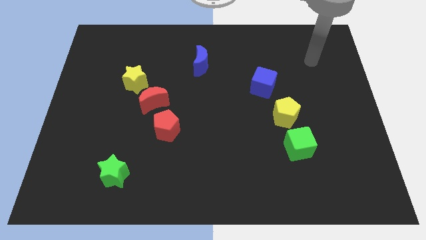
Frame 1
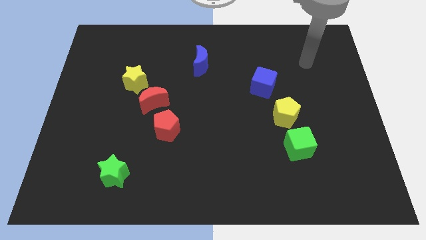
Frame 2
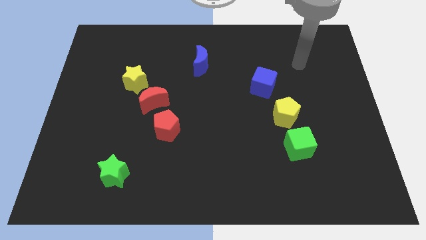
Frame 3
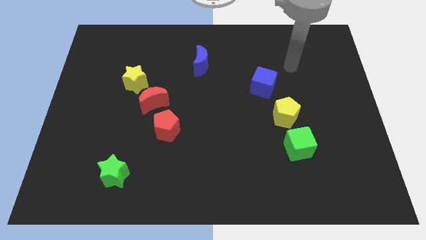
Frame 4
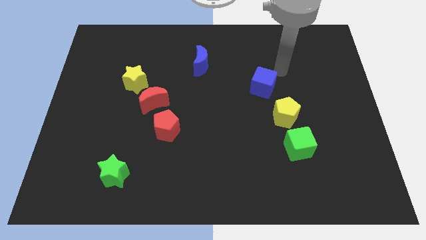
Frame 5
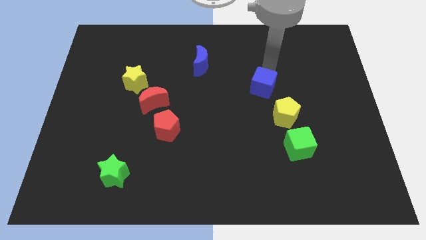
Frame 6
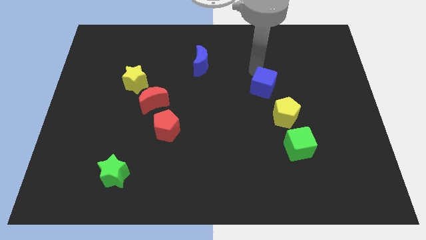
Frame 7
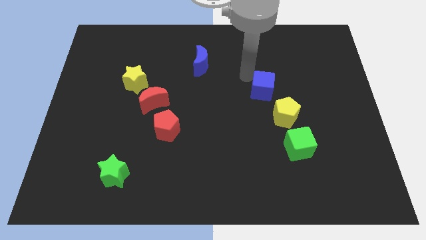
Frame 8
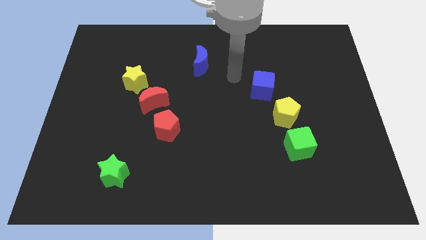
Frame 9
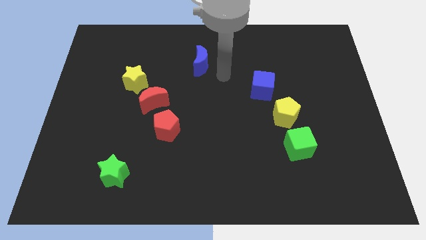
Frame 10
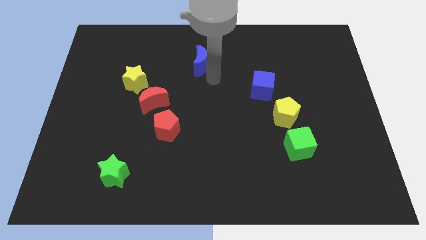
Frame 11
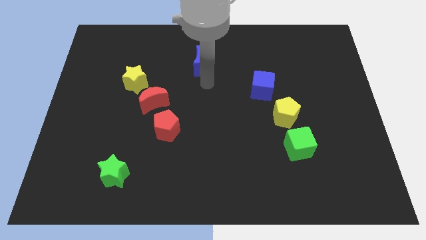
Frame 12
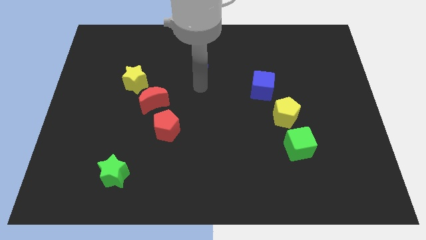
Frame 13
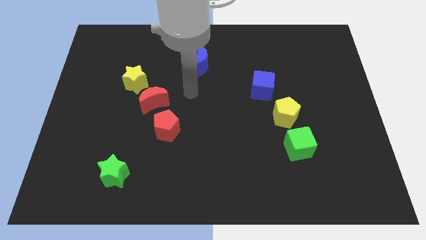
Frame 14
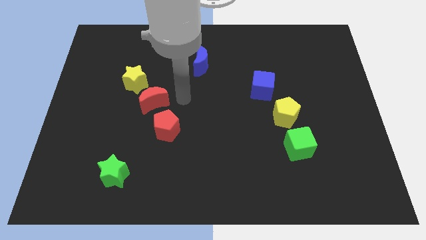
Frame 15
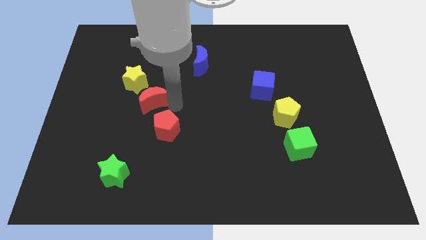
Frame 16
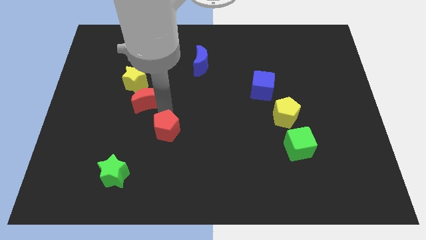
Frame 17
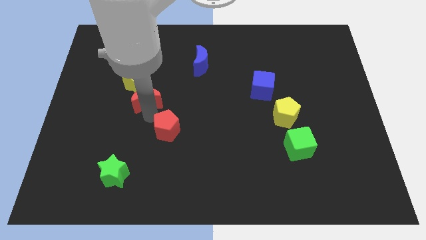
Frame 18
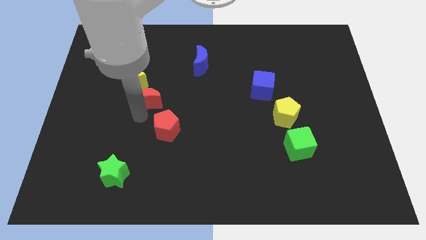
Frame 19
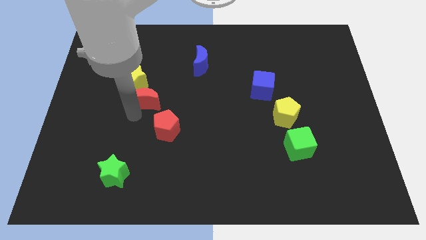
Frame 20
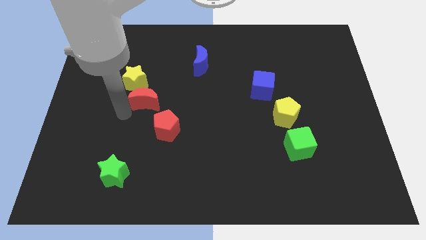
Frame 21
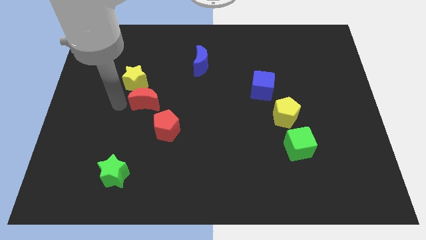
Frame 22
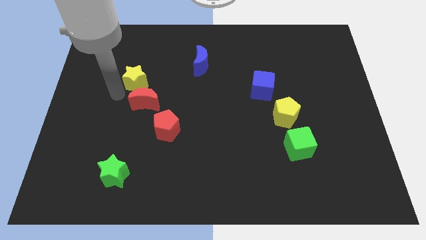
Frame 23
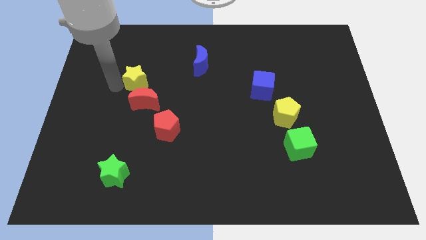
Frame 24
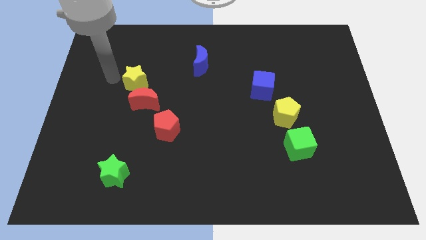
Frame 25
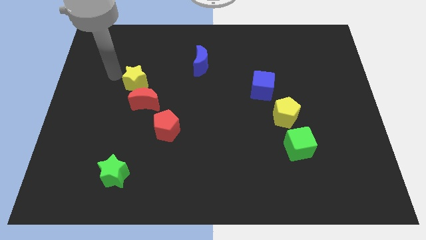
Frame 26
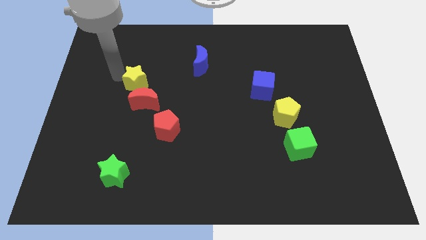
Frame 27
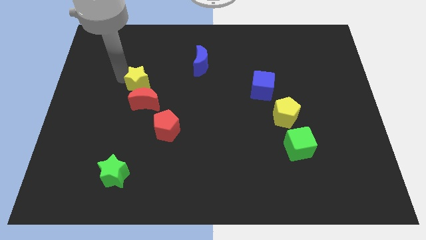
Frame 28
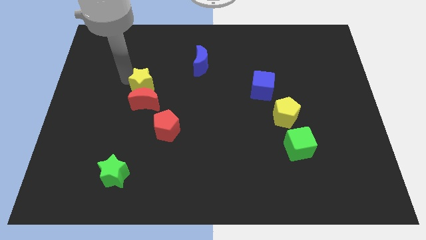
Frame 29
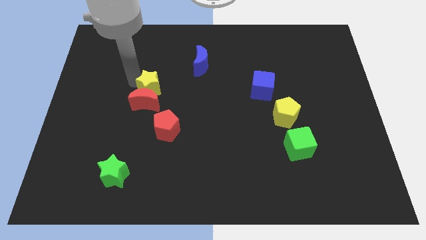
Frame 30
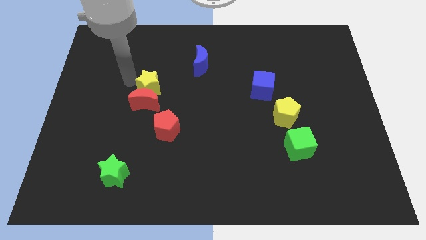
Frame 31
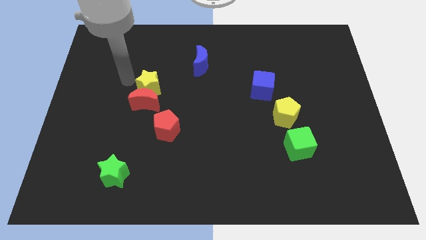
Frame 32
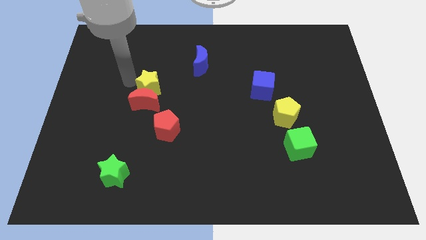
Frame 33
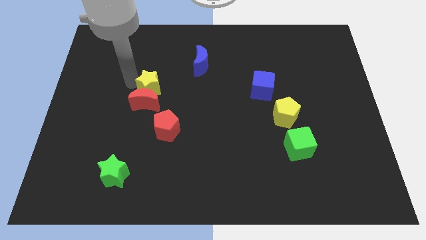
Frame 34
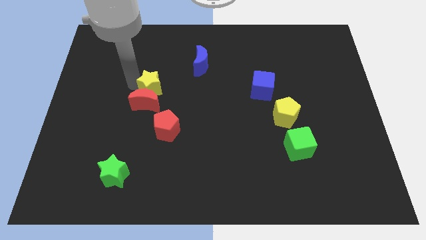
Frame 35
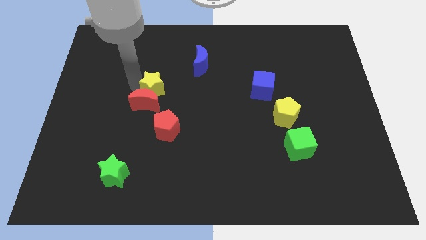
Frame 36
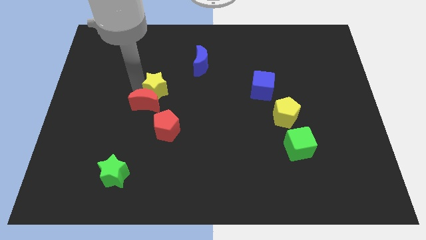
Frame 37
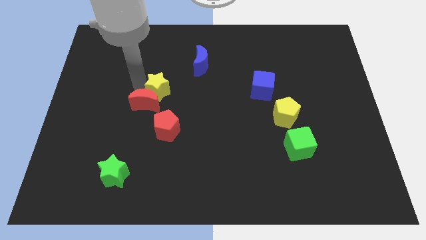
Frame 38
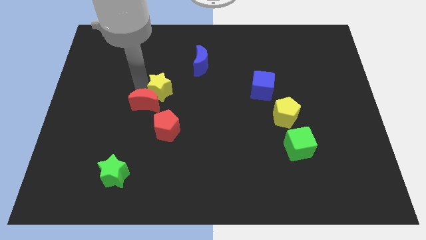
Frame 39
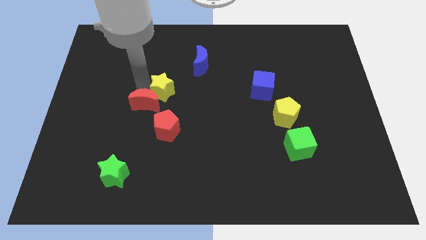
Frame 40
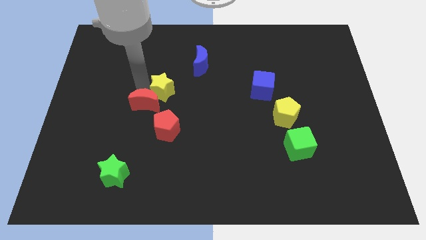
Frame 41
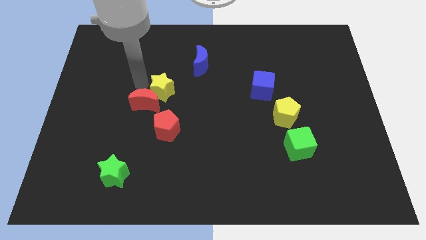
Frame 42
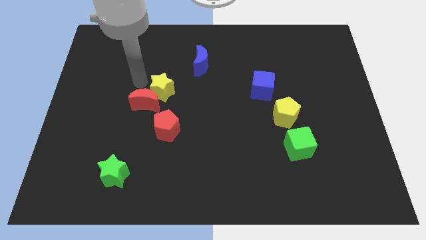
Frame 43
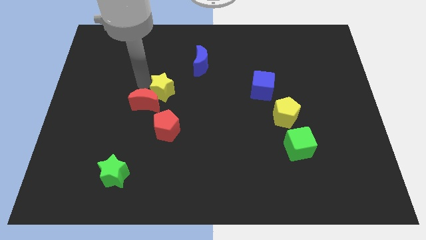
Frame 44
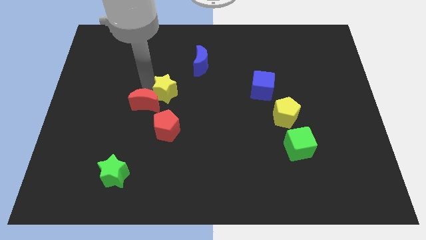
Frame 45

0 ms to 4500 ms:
push the yellow star down and then right somewhat

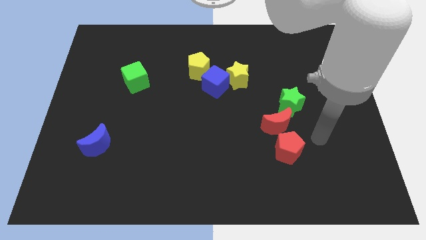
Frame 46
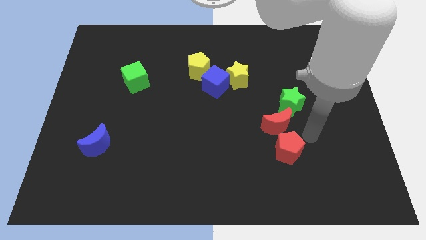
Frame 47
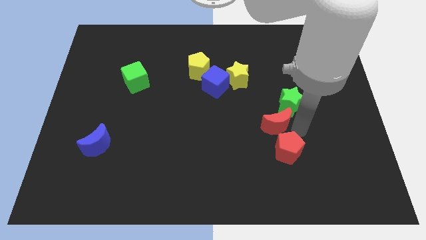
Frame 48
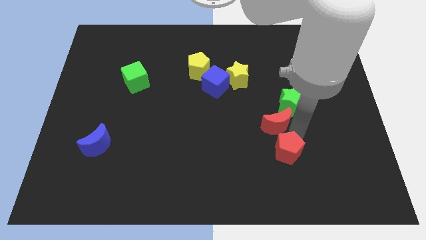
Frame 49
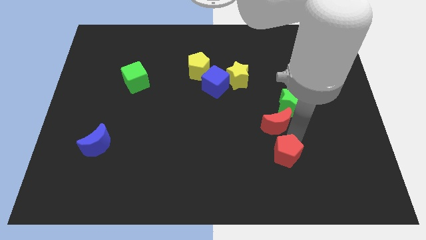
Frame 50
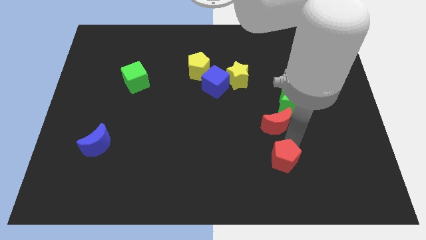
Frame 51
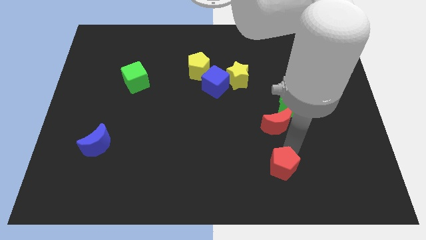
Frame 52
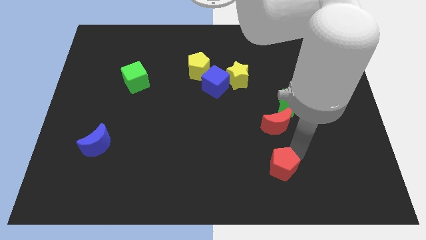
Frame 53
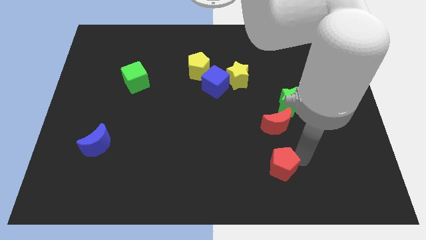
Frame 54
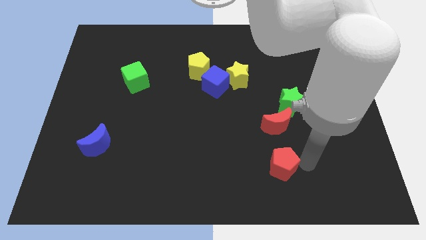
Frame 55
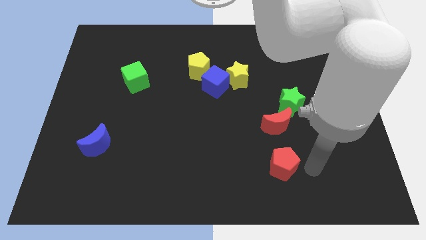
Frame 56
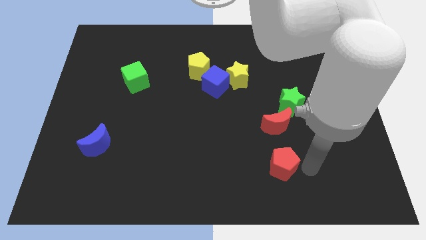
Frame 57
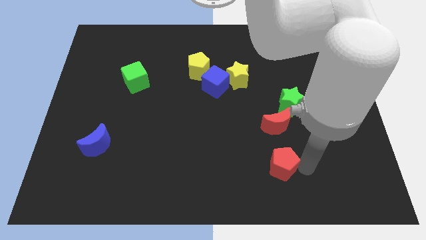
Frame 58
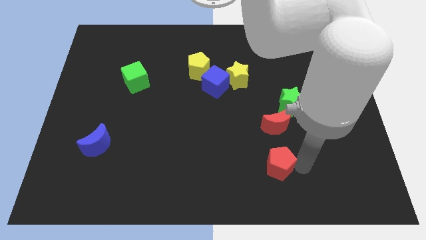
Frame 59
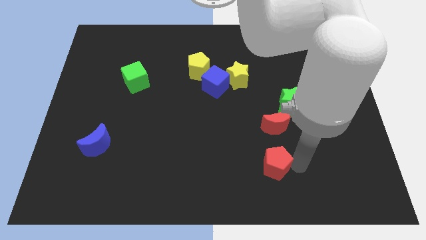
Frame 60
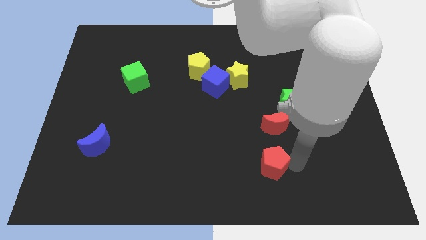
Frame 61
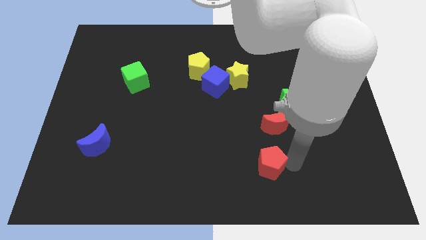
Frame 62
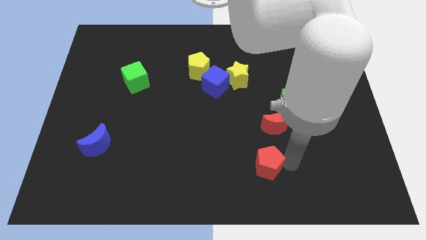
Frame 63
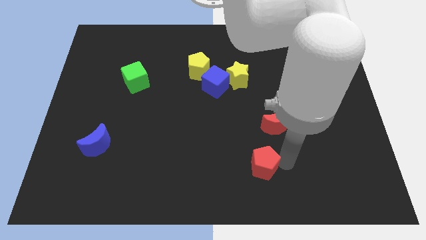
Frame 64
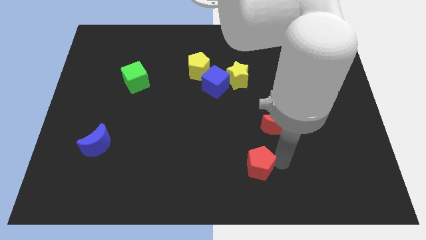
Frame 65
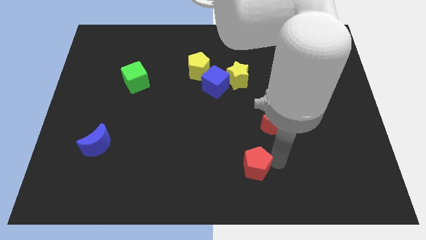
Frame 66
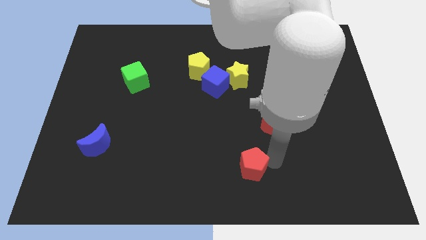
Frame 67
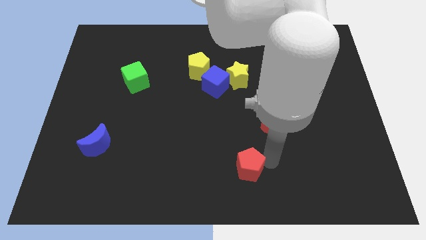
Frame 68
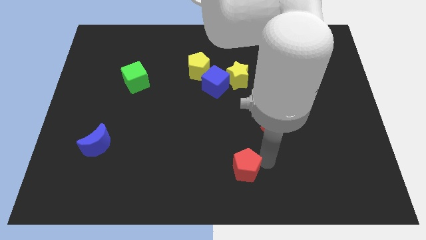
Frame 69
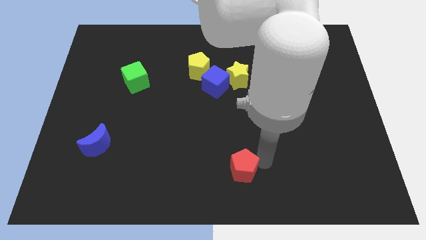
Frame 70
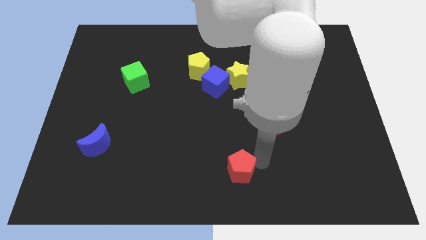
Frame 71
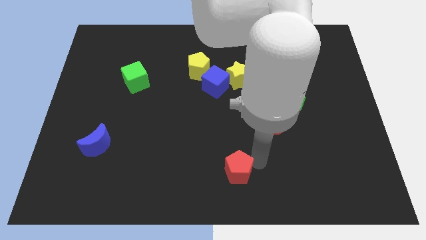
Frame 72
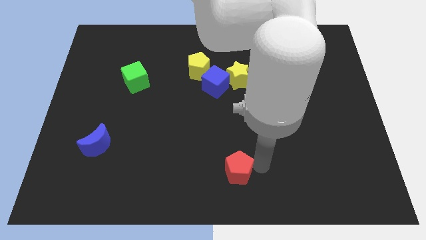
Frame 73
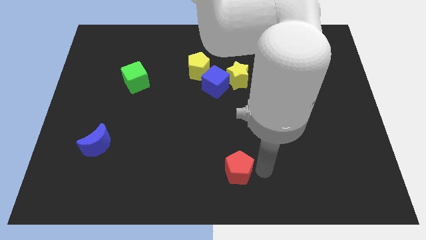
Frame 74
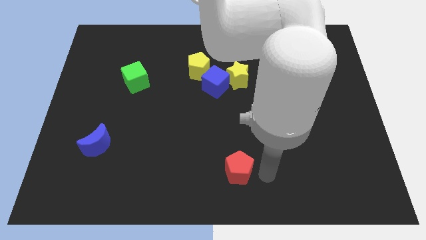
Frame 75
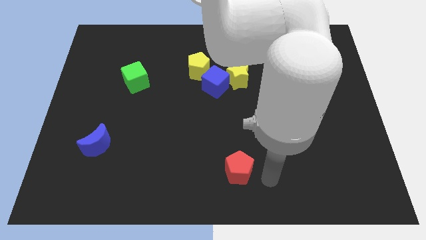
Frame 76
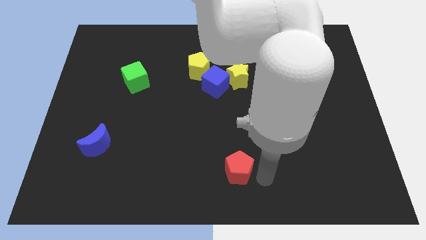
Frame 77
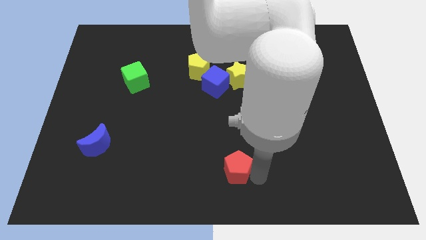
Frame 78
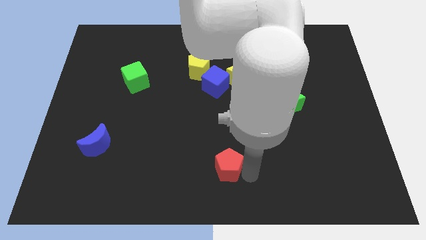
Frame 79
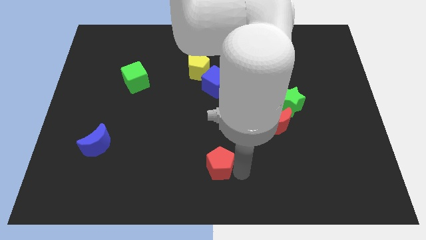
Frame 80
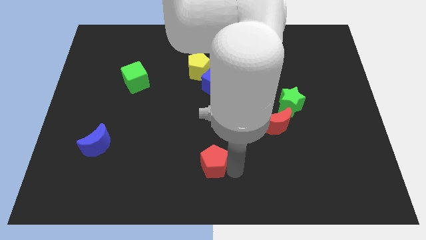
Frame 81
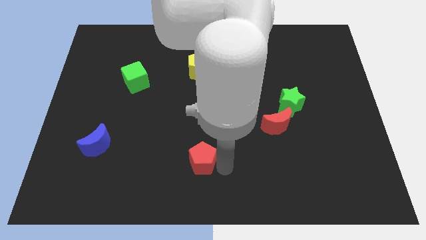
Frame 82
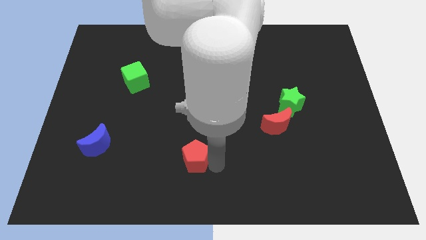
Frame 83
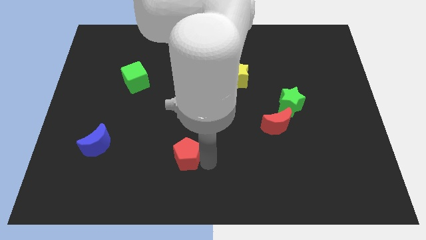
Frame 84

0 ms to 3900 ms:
slide the red pentagon left
